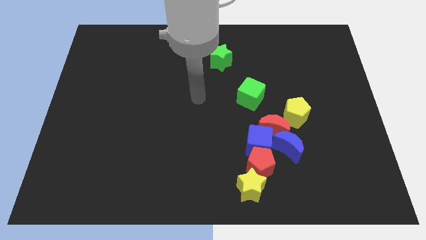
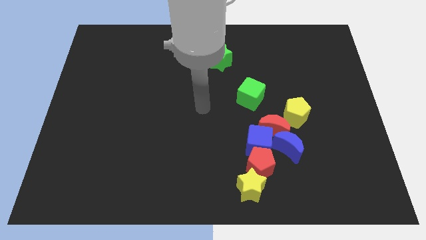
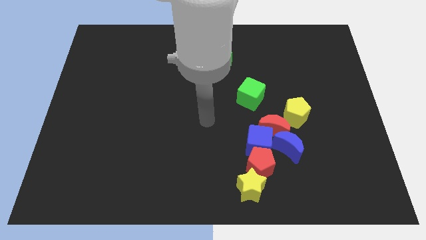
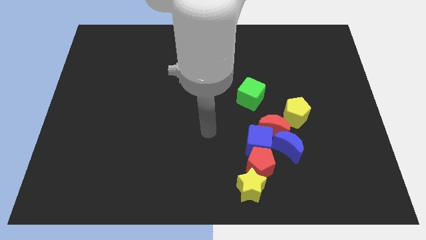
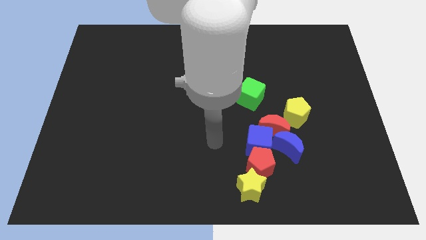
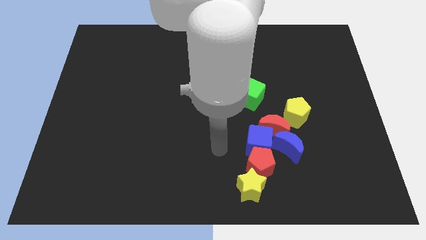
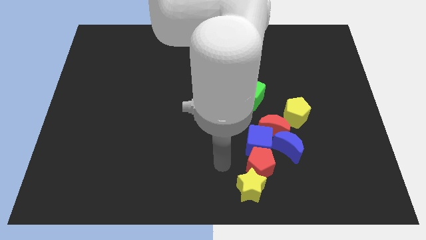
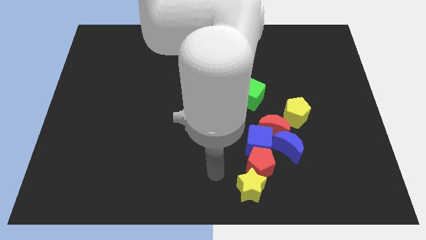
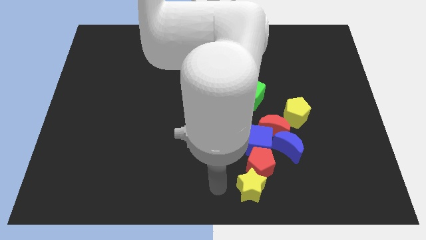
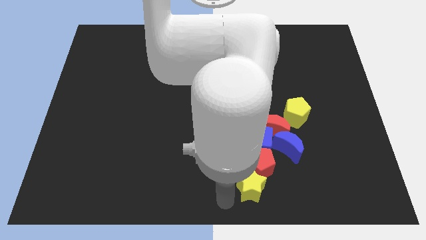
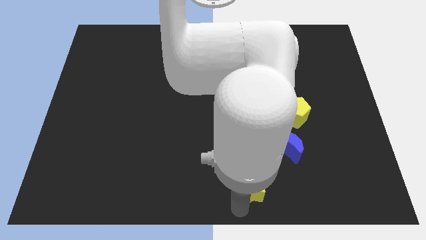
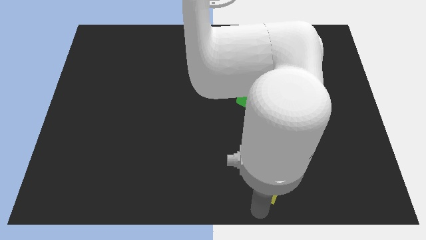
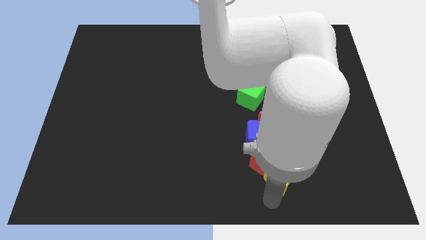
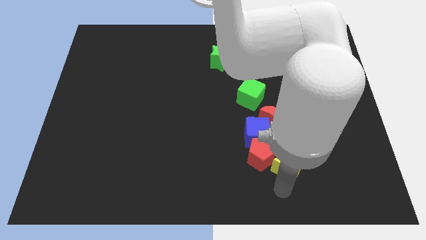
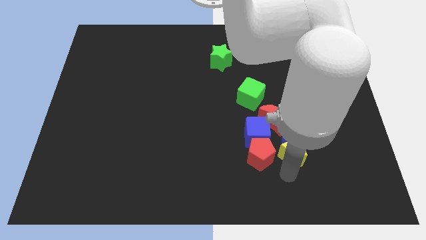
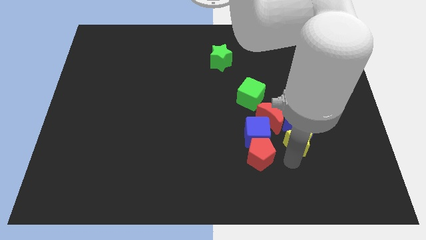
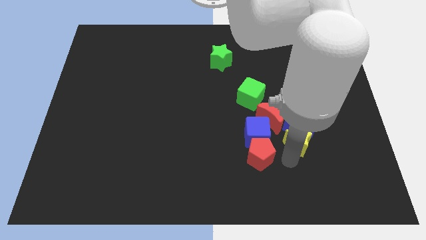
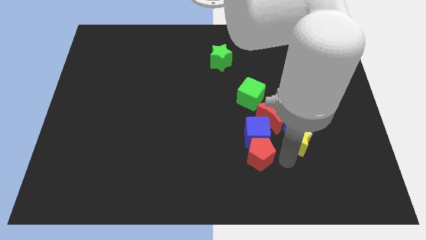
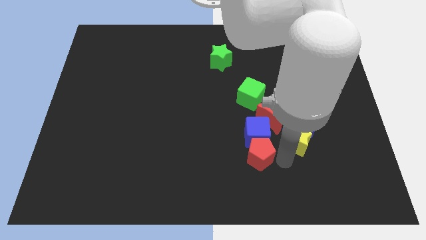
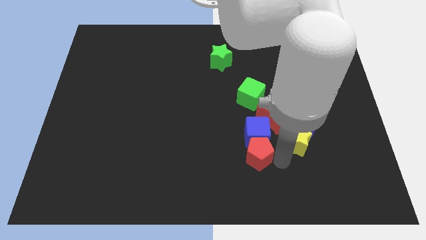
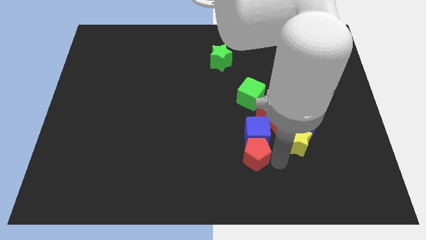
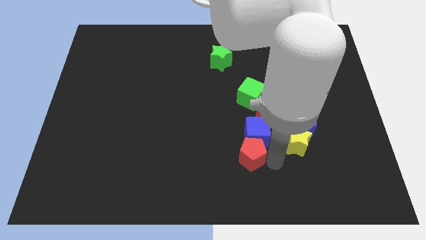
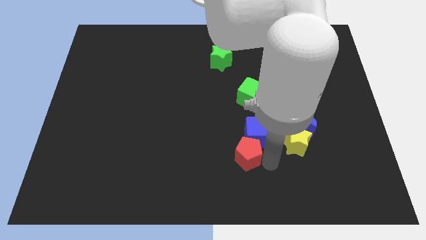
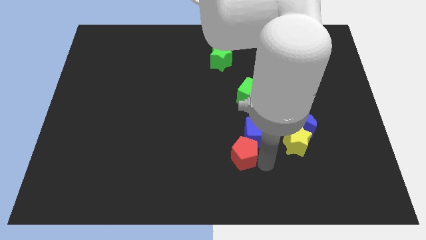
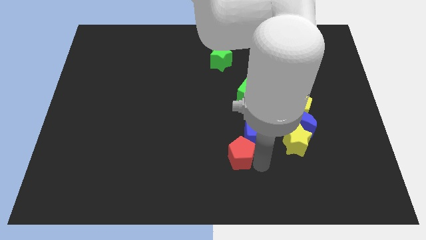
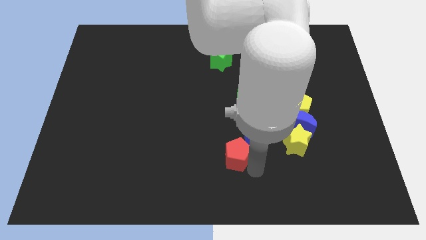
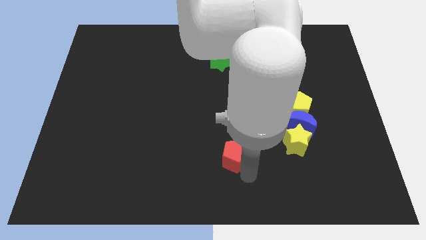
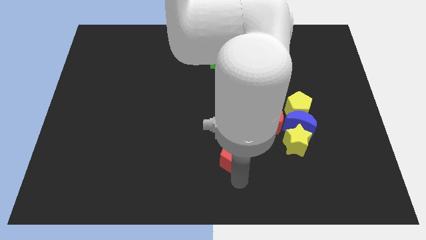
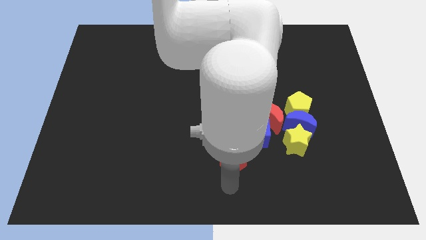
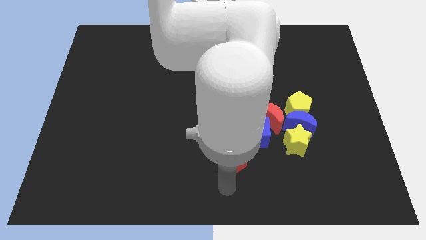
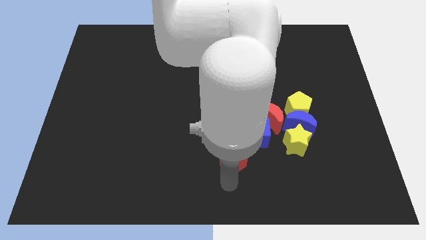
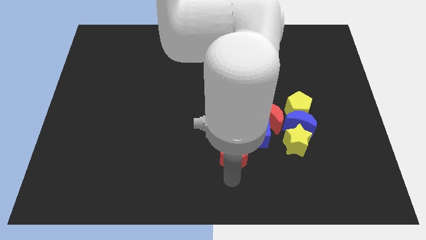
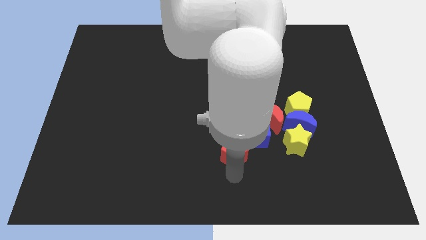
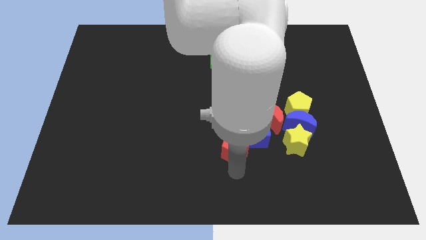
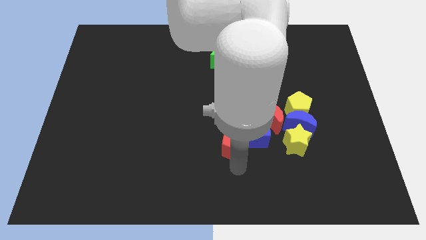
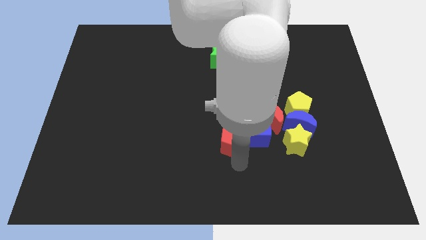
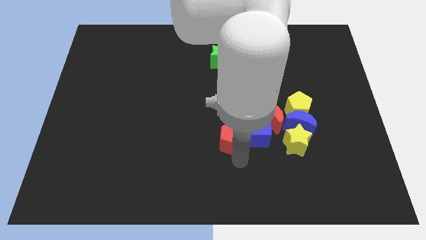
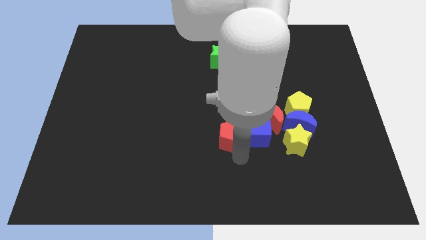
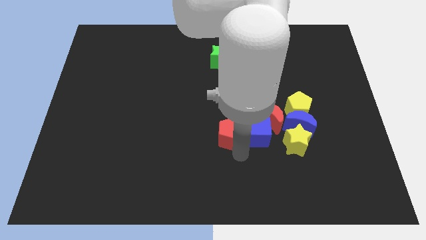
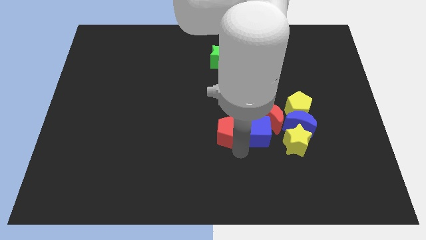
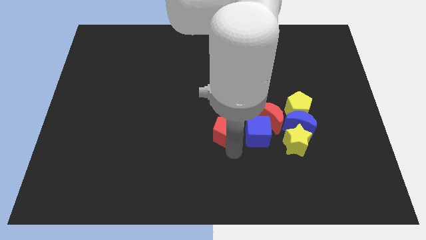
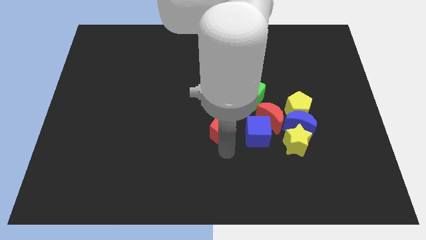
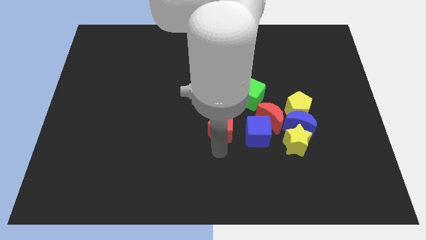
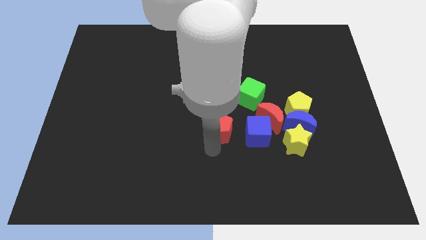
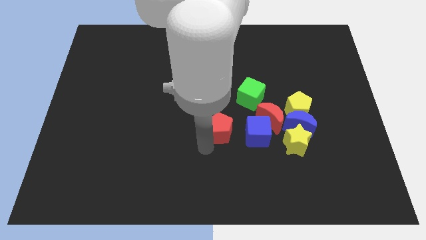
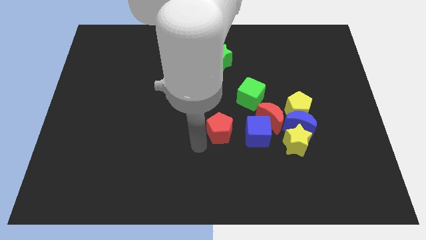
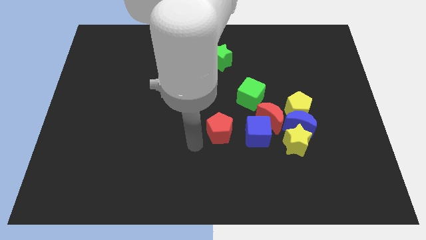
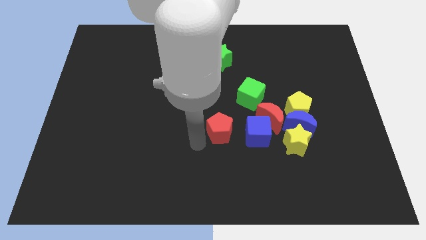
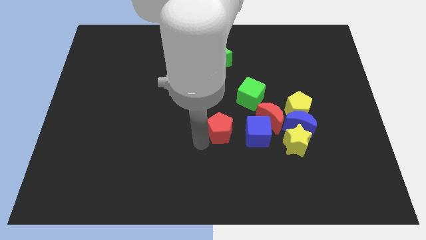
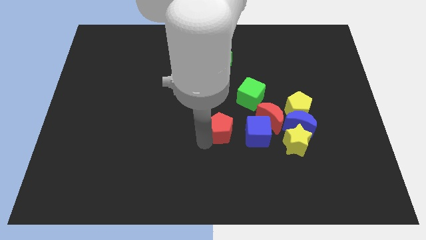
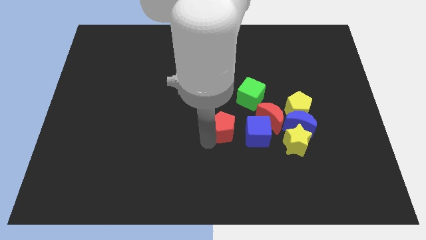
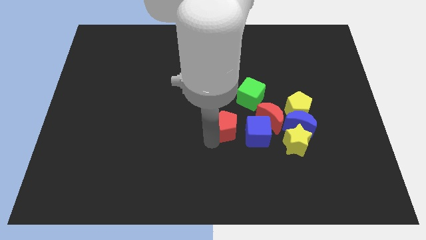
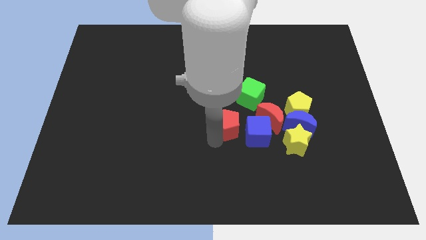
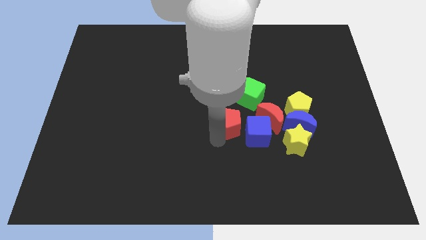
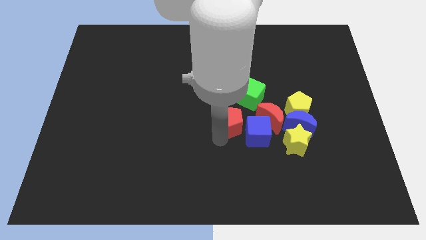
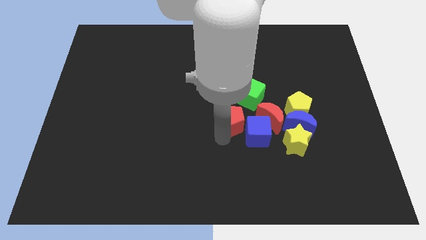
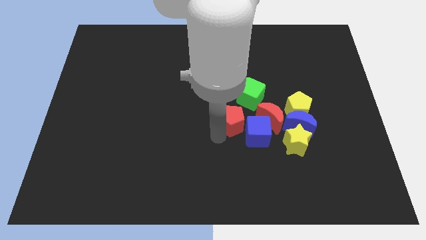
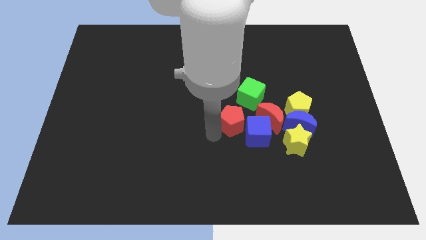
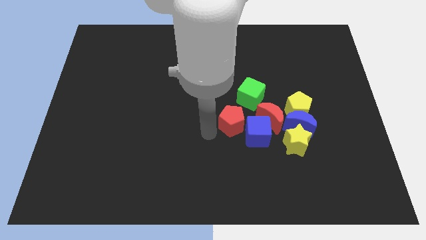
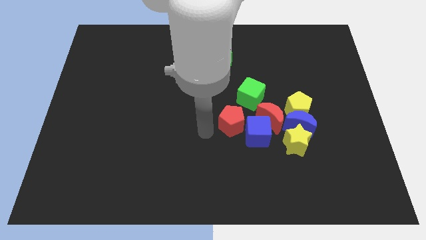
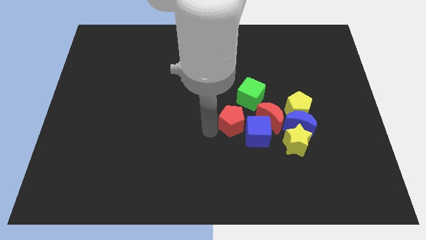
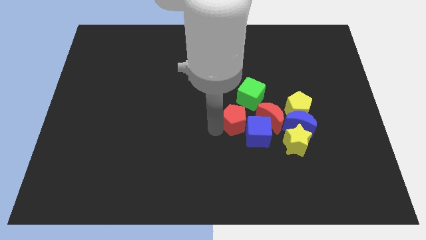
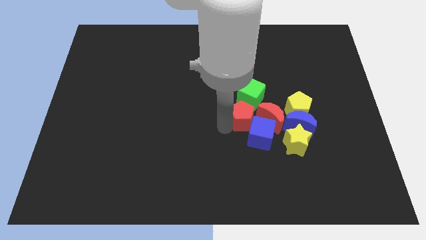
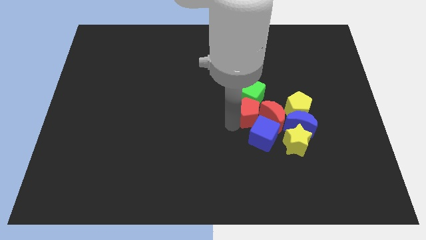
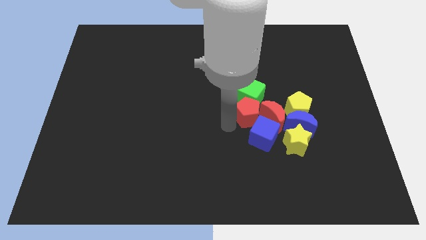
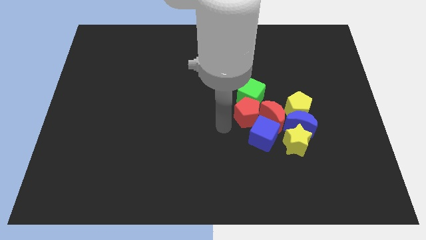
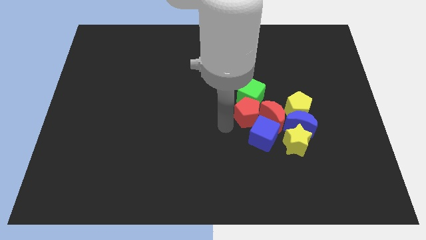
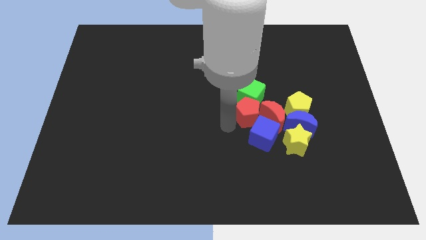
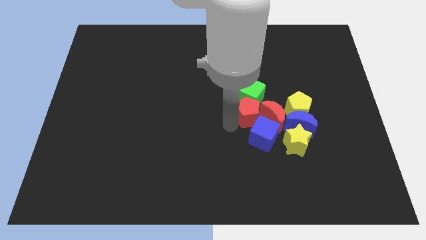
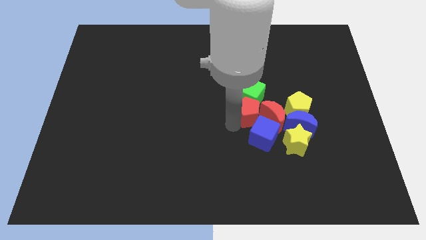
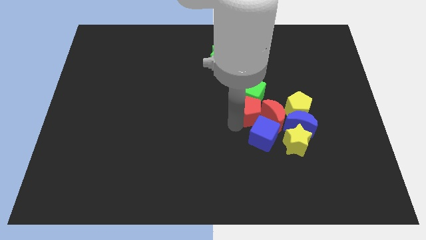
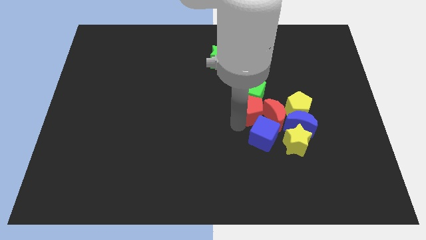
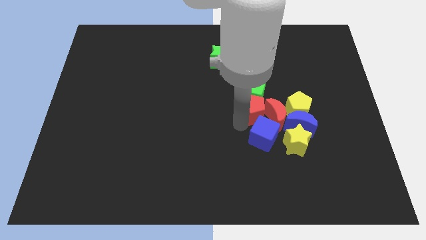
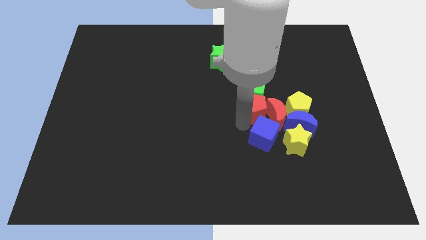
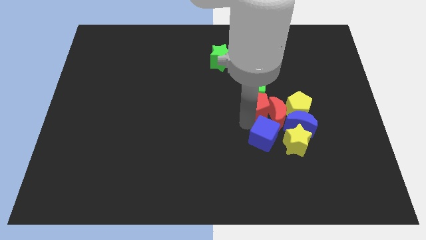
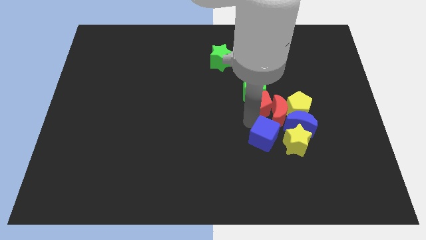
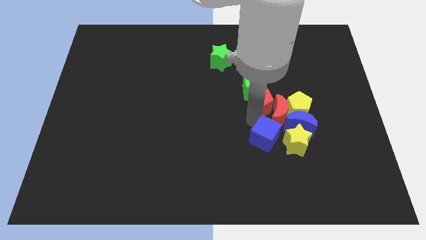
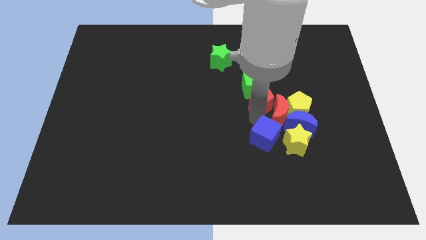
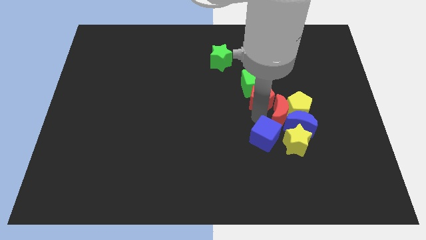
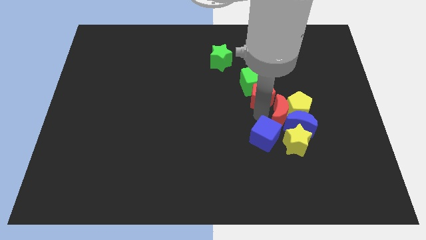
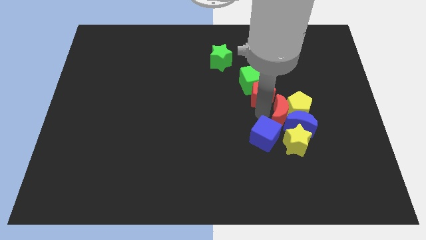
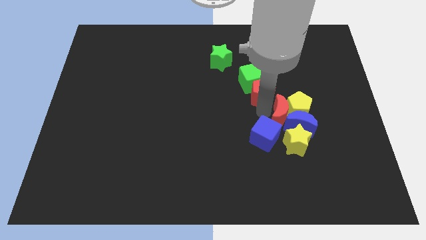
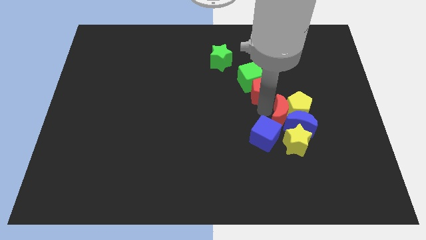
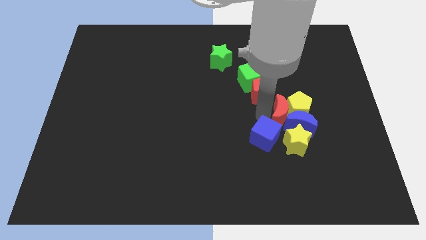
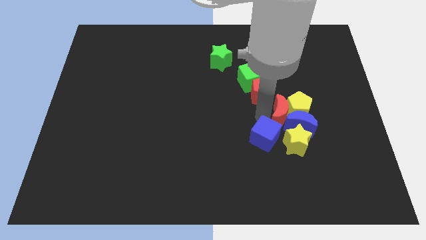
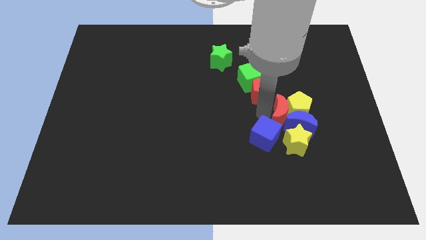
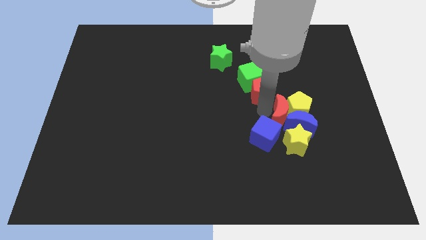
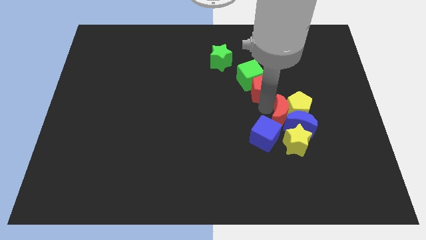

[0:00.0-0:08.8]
push the red pentagon upwards
